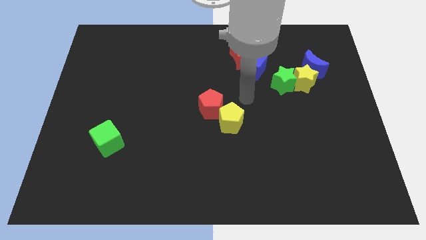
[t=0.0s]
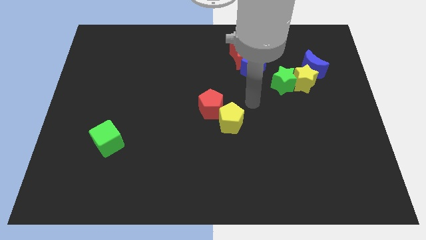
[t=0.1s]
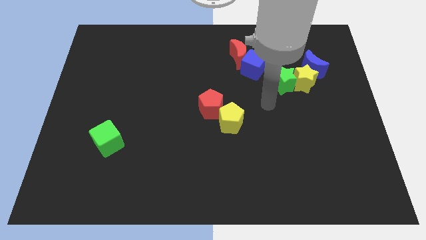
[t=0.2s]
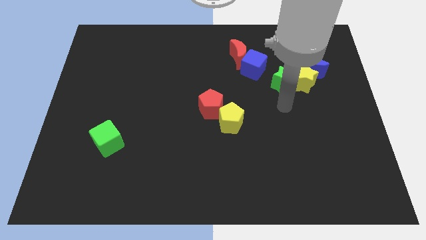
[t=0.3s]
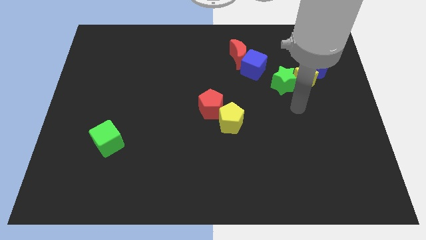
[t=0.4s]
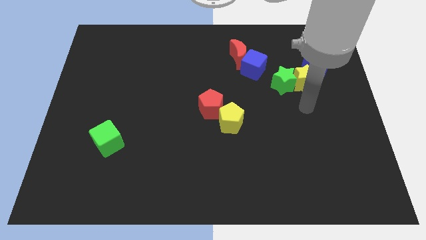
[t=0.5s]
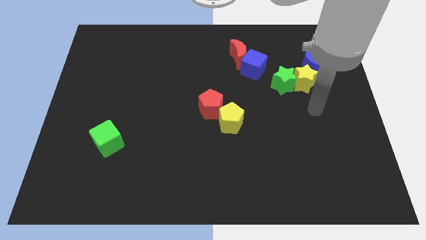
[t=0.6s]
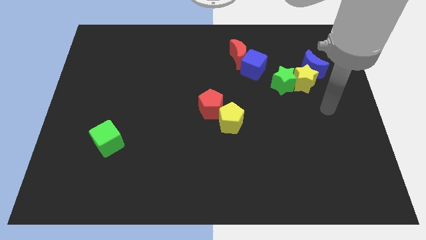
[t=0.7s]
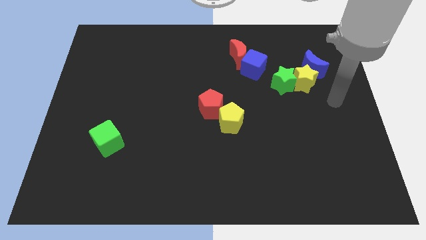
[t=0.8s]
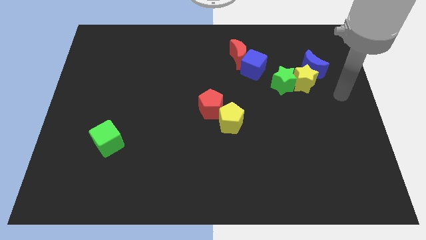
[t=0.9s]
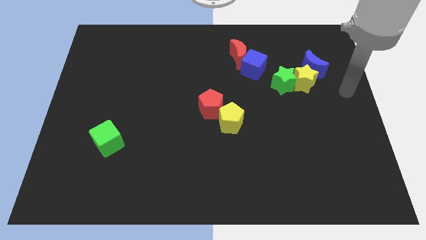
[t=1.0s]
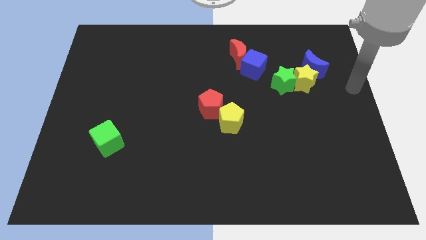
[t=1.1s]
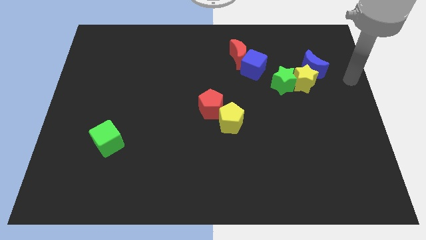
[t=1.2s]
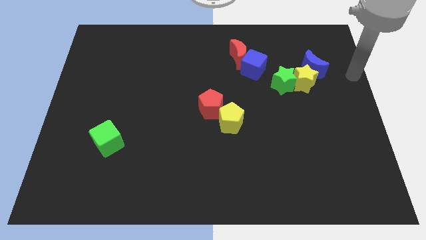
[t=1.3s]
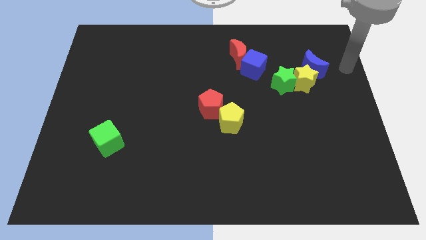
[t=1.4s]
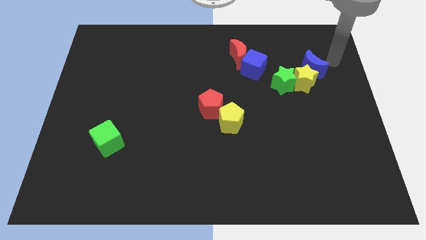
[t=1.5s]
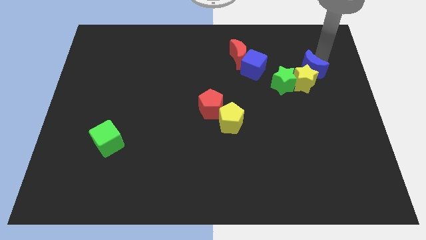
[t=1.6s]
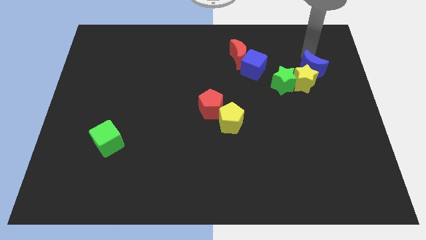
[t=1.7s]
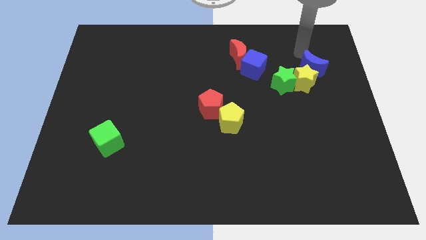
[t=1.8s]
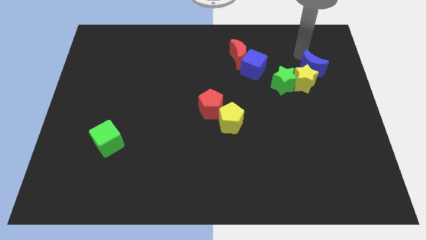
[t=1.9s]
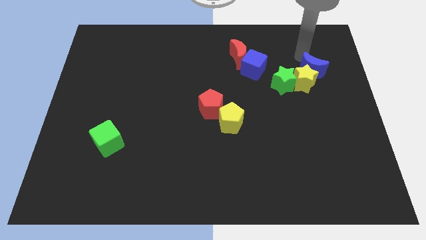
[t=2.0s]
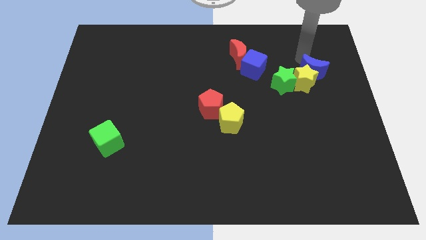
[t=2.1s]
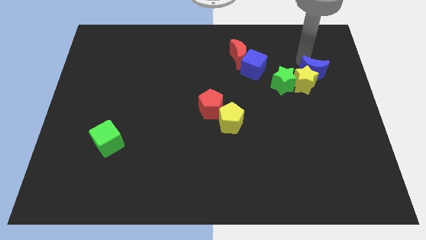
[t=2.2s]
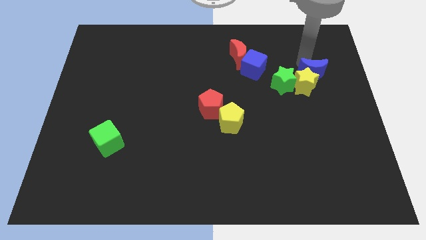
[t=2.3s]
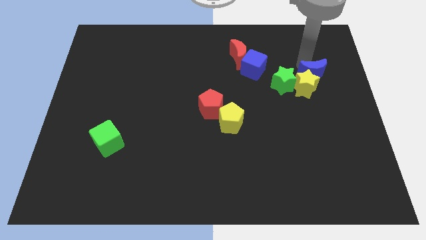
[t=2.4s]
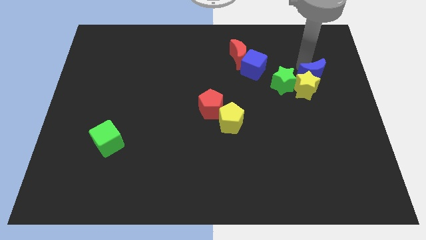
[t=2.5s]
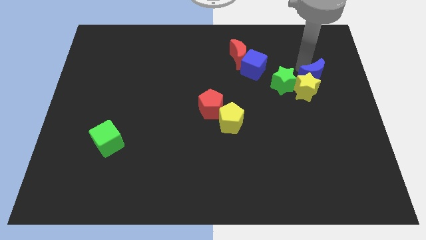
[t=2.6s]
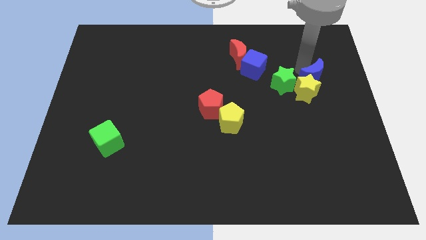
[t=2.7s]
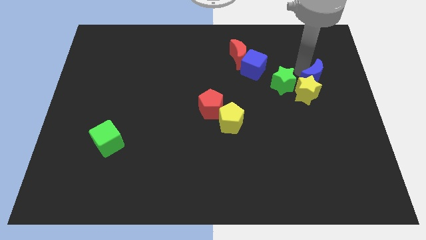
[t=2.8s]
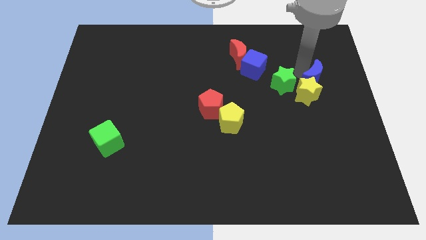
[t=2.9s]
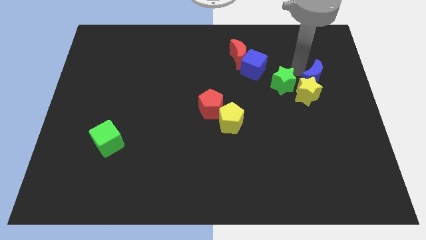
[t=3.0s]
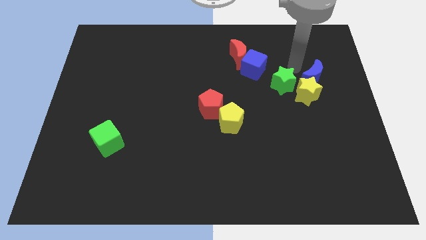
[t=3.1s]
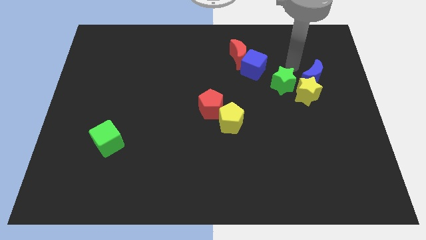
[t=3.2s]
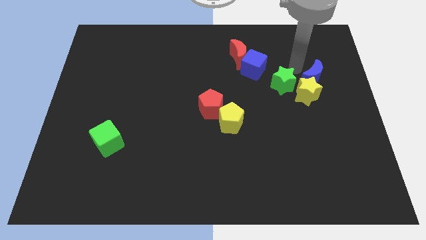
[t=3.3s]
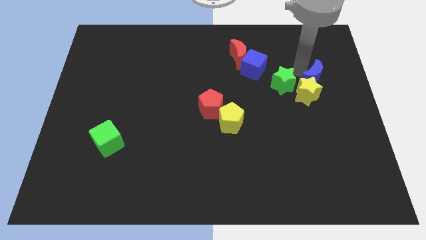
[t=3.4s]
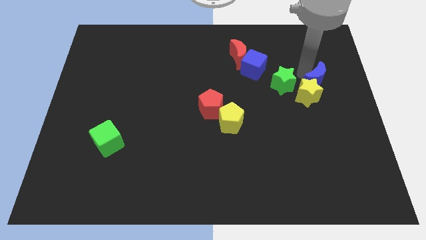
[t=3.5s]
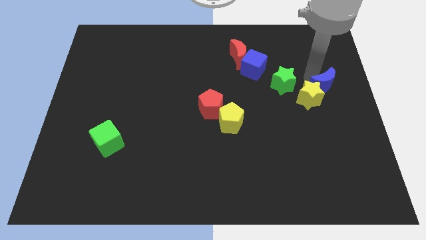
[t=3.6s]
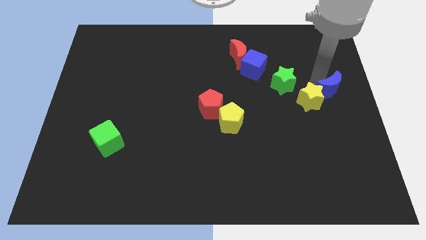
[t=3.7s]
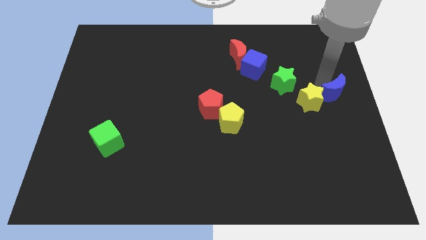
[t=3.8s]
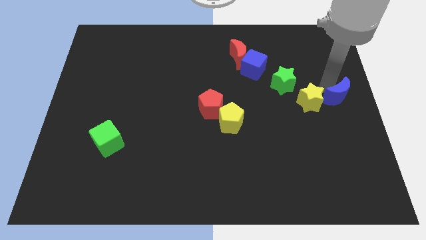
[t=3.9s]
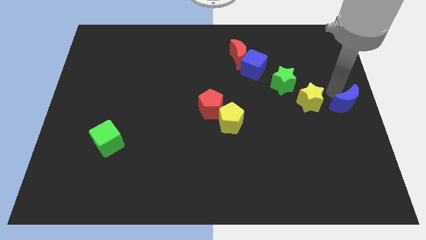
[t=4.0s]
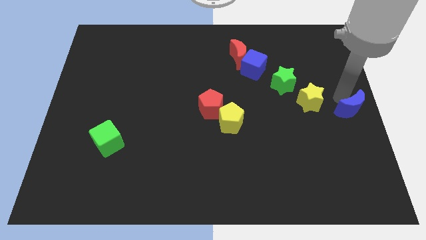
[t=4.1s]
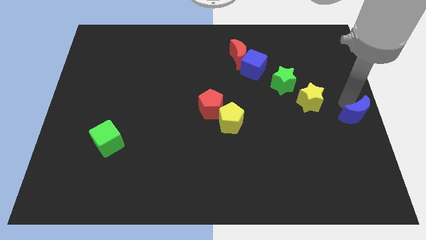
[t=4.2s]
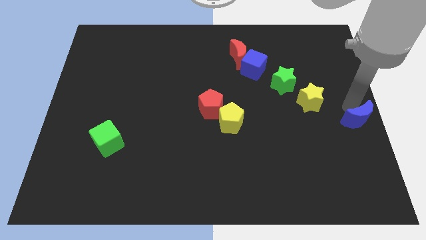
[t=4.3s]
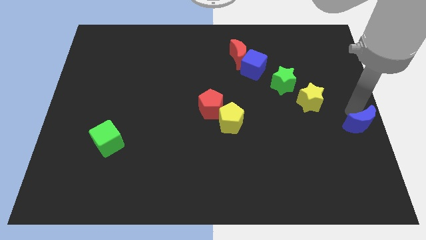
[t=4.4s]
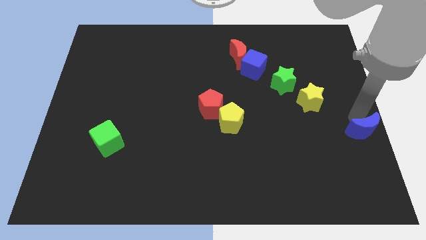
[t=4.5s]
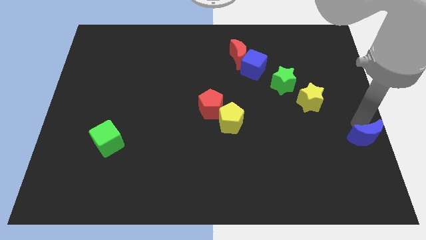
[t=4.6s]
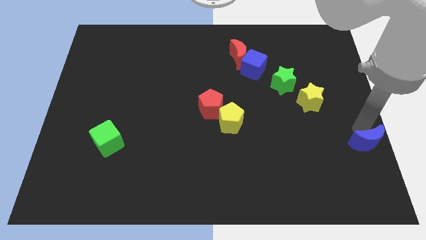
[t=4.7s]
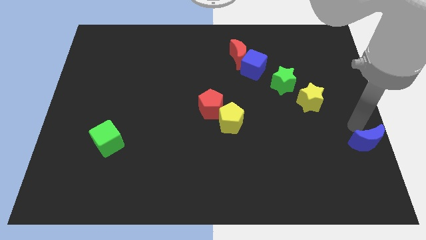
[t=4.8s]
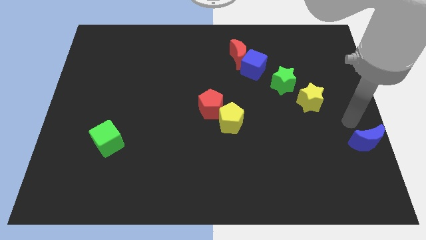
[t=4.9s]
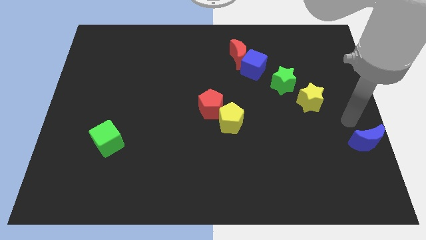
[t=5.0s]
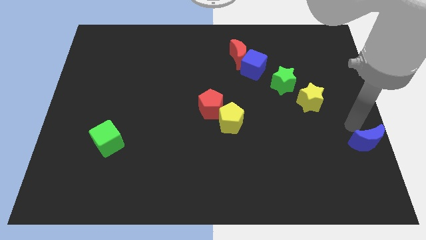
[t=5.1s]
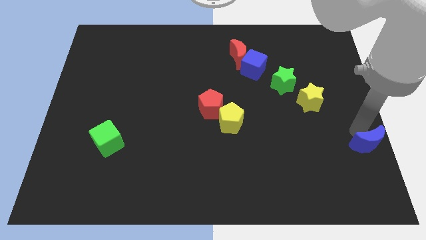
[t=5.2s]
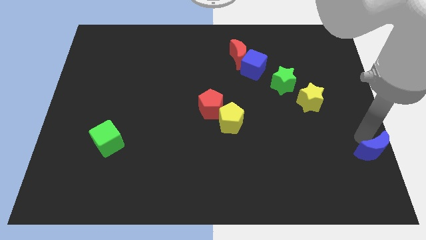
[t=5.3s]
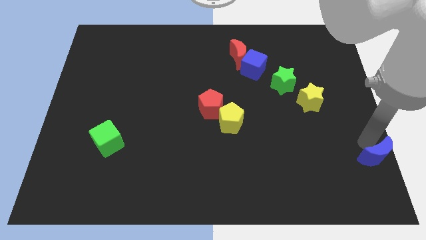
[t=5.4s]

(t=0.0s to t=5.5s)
put the blue moon to the lower right corner
